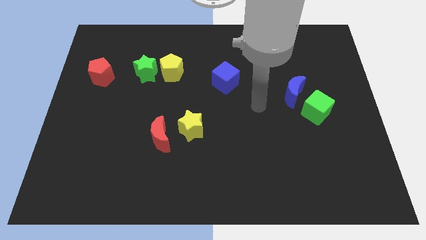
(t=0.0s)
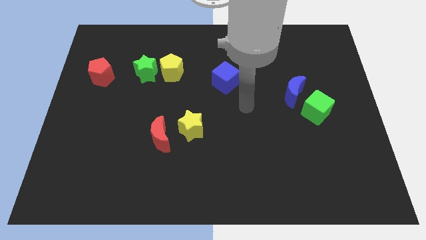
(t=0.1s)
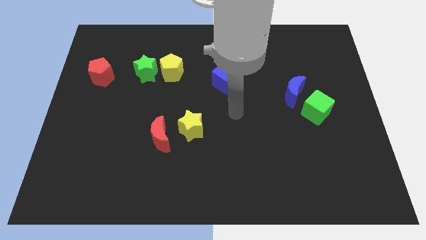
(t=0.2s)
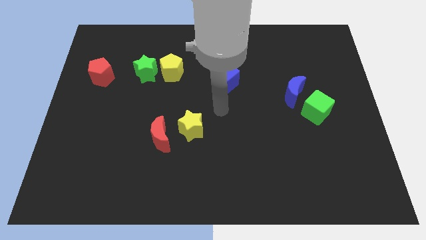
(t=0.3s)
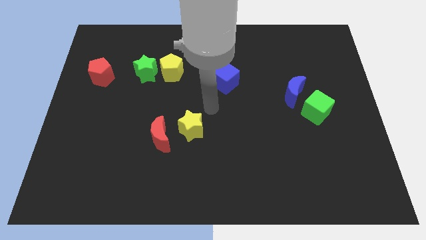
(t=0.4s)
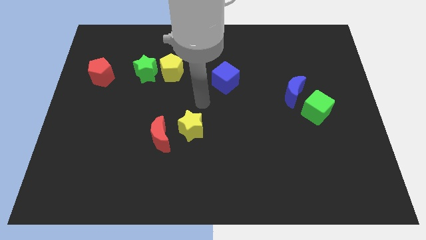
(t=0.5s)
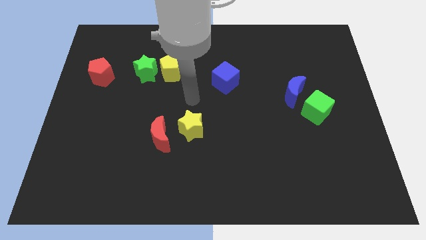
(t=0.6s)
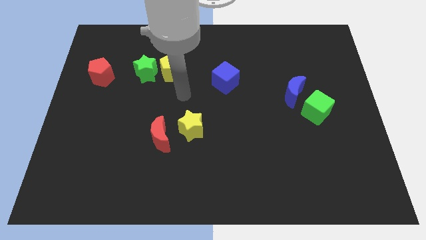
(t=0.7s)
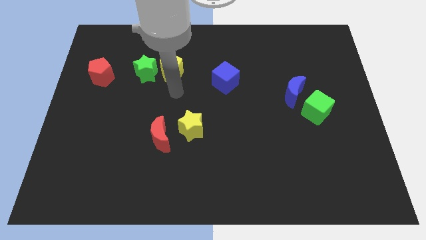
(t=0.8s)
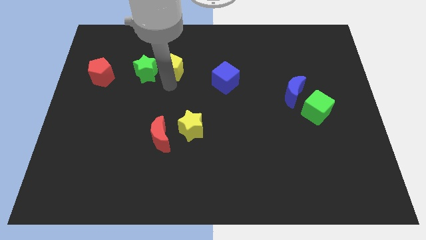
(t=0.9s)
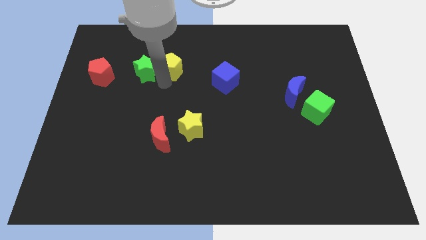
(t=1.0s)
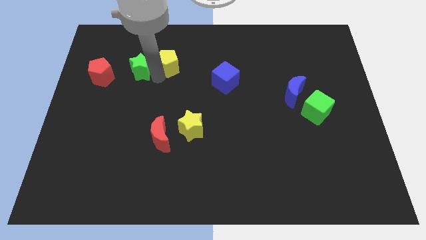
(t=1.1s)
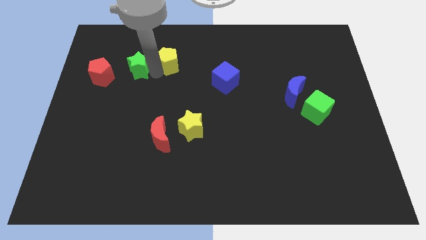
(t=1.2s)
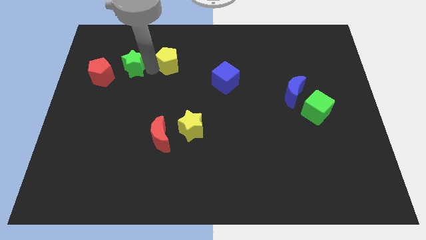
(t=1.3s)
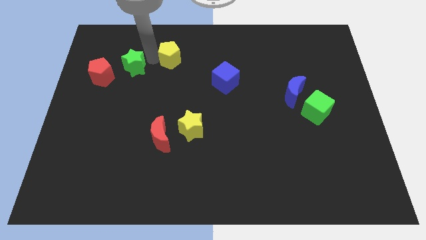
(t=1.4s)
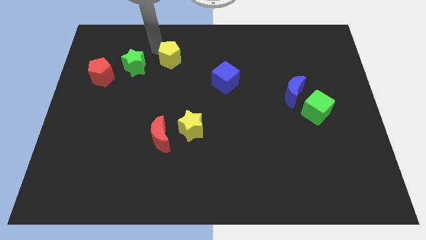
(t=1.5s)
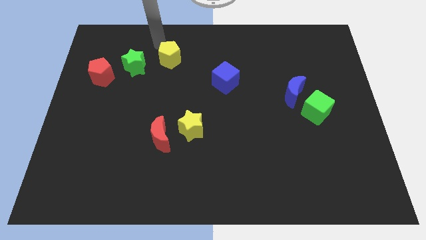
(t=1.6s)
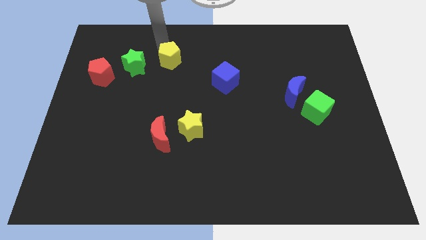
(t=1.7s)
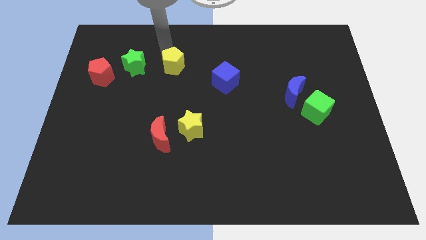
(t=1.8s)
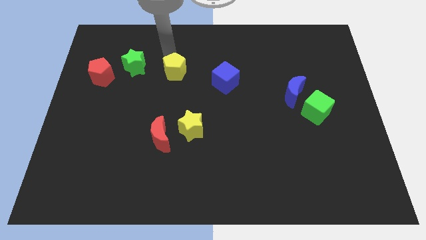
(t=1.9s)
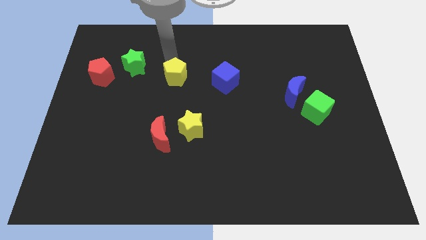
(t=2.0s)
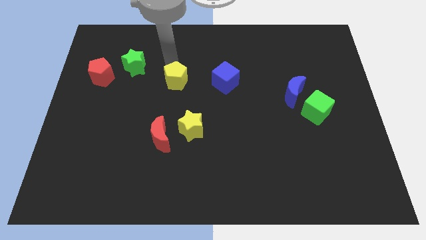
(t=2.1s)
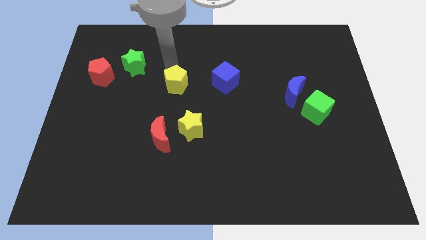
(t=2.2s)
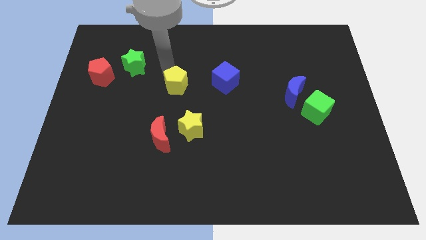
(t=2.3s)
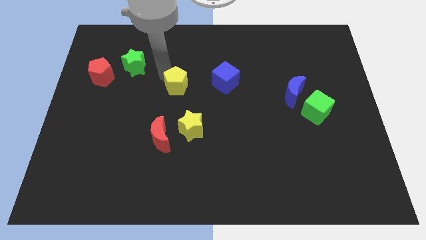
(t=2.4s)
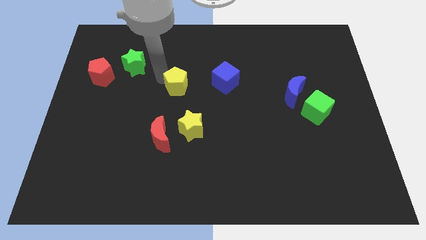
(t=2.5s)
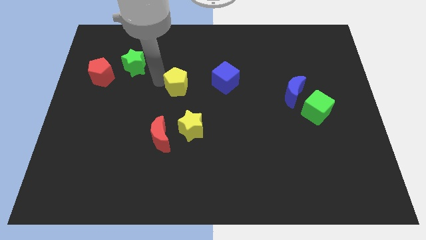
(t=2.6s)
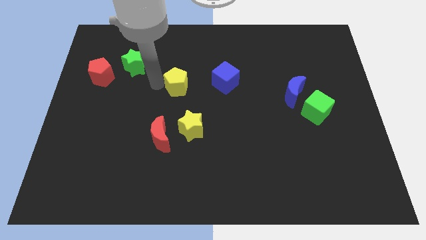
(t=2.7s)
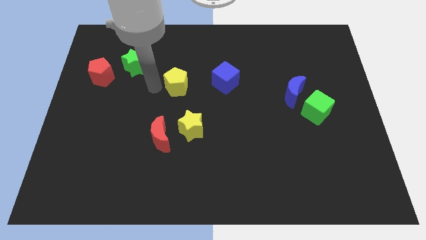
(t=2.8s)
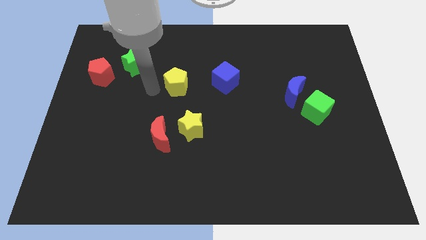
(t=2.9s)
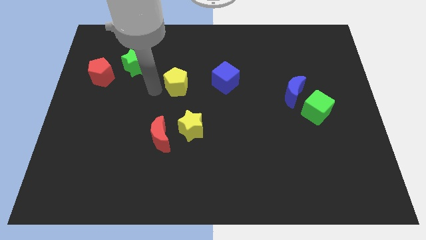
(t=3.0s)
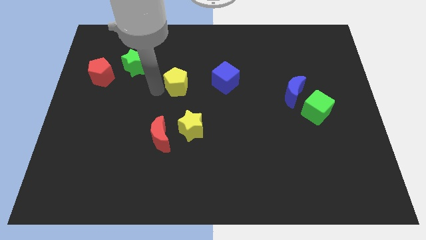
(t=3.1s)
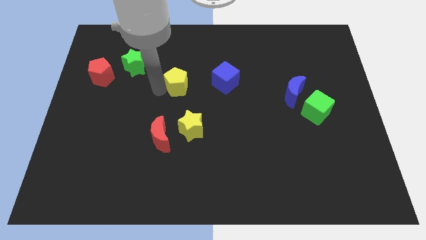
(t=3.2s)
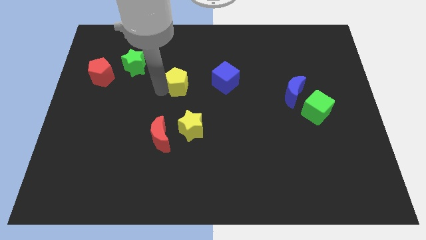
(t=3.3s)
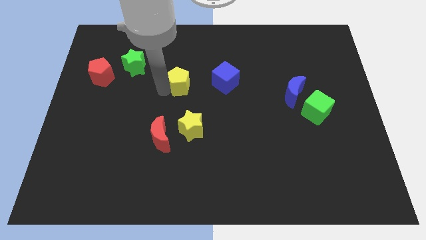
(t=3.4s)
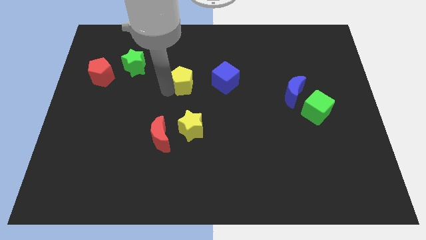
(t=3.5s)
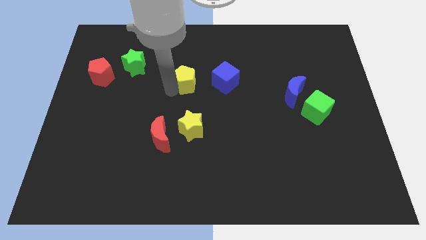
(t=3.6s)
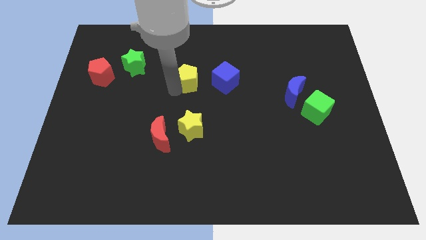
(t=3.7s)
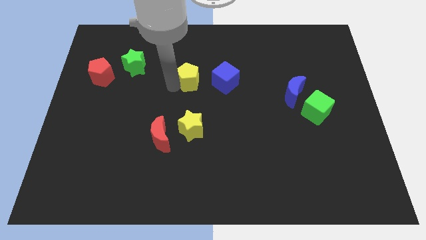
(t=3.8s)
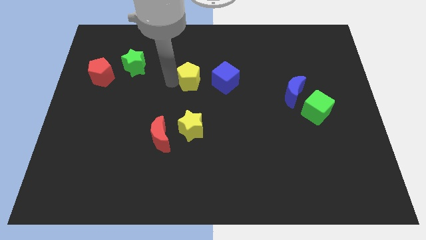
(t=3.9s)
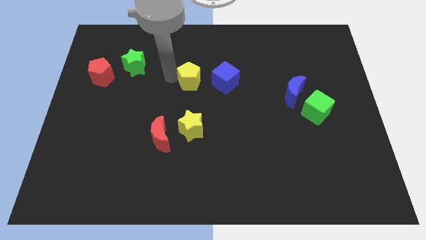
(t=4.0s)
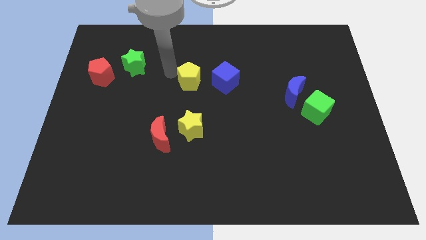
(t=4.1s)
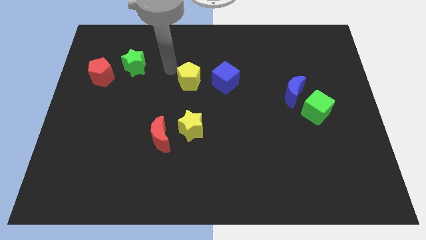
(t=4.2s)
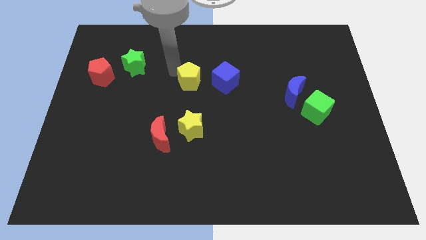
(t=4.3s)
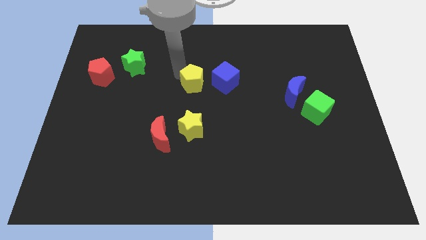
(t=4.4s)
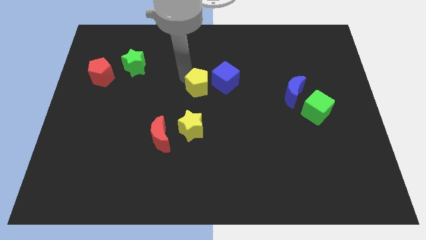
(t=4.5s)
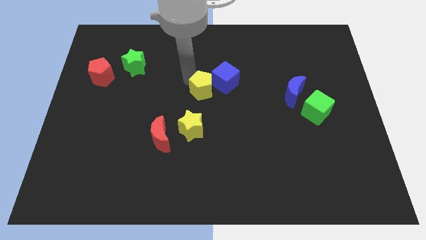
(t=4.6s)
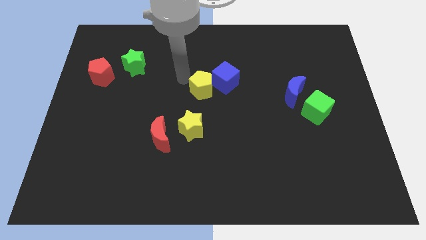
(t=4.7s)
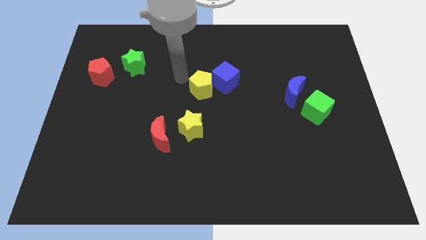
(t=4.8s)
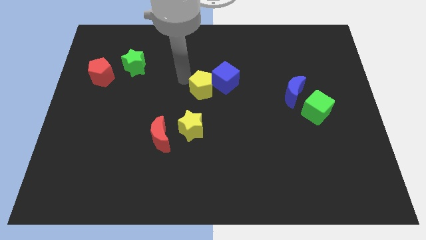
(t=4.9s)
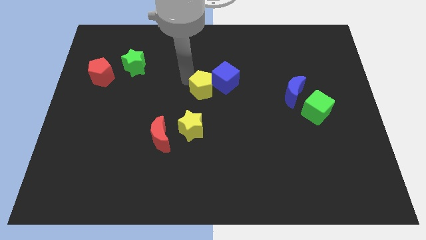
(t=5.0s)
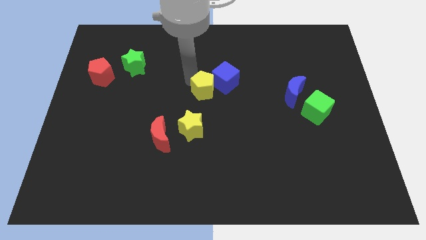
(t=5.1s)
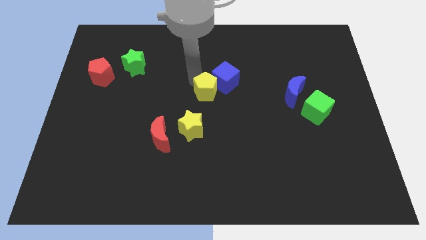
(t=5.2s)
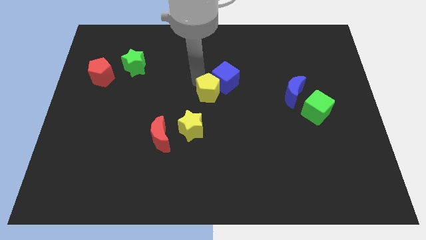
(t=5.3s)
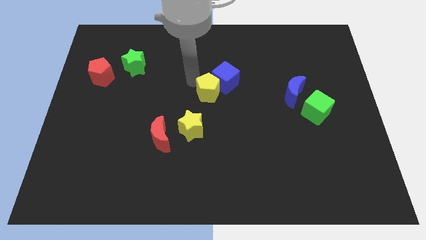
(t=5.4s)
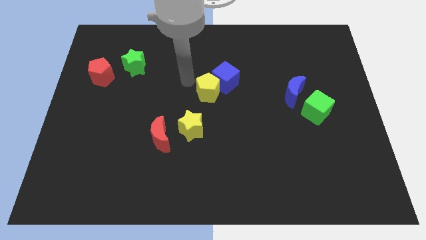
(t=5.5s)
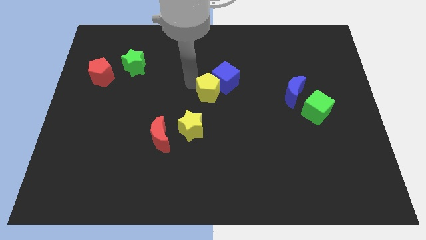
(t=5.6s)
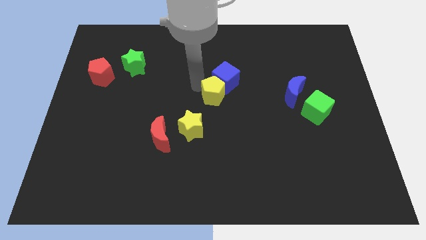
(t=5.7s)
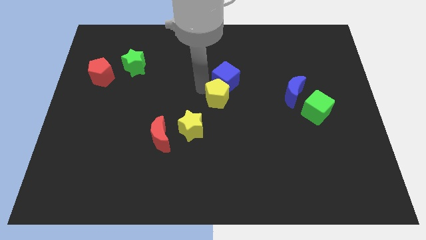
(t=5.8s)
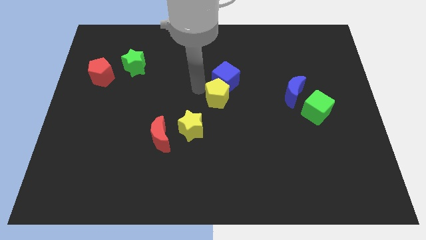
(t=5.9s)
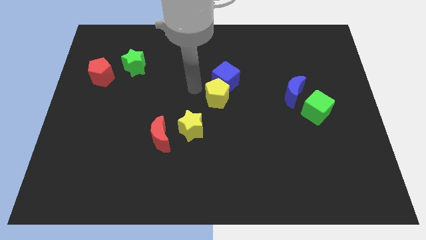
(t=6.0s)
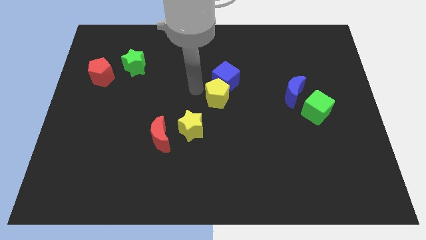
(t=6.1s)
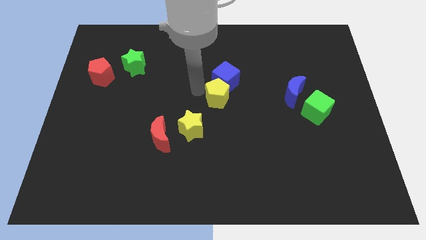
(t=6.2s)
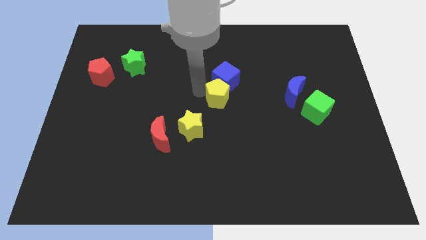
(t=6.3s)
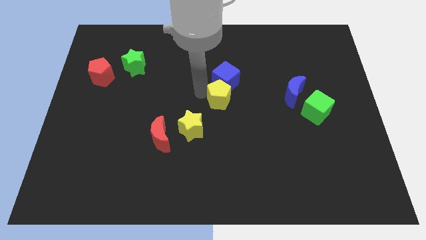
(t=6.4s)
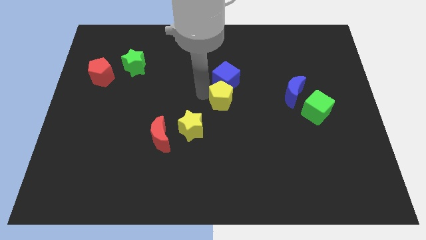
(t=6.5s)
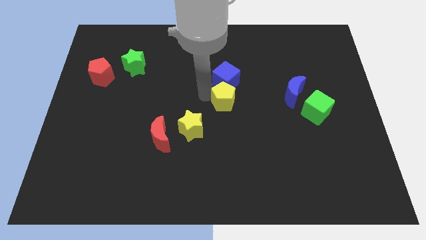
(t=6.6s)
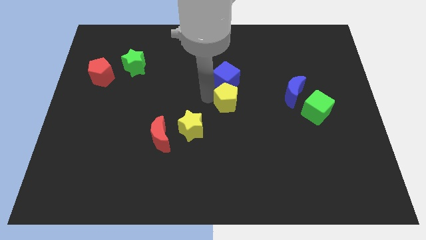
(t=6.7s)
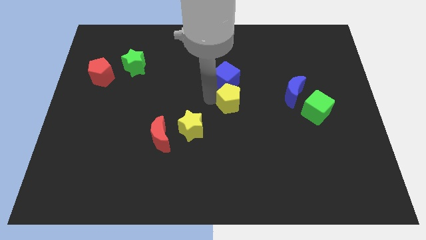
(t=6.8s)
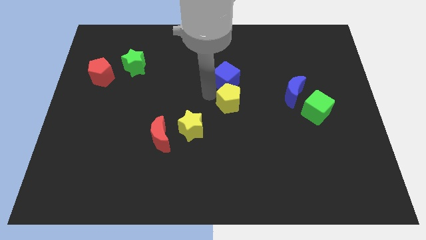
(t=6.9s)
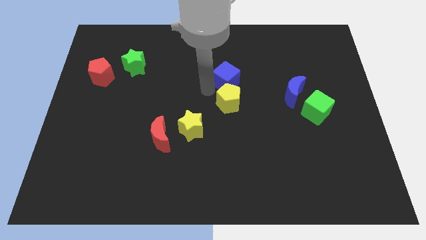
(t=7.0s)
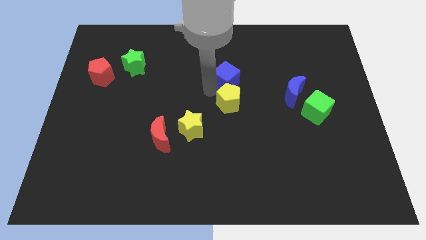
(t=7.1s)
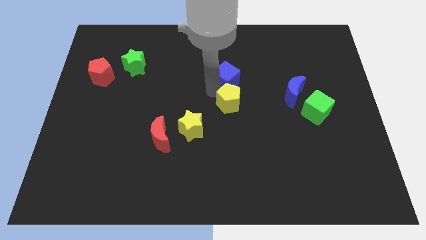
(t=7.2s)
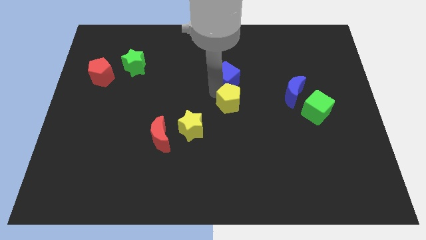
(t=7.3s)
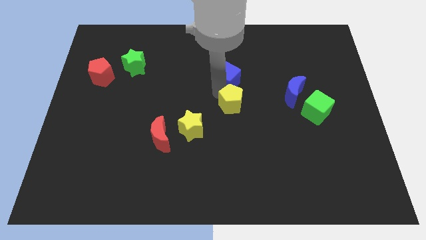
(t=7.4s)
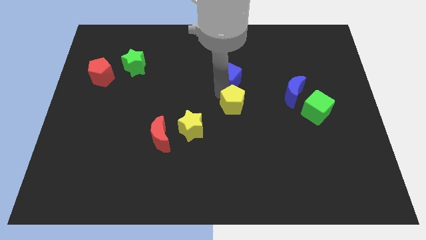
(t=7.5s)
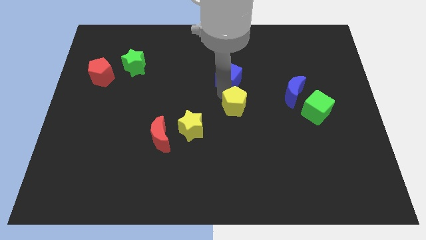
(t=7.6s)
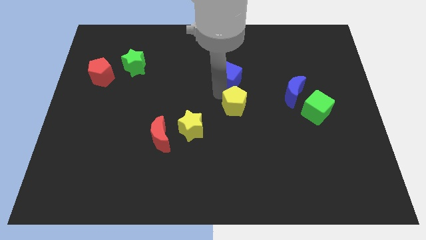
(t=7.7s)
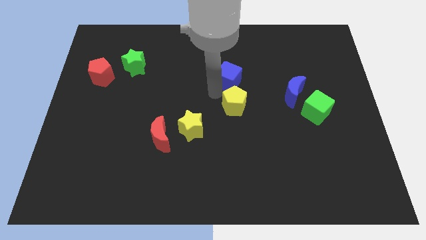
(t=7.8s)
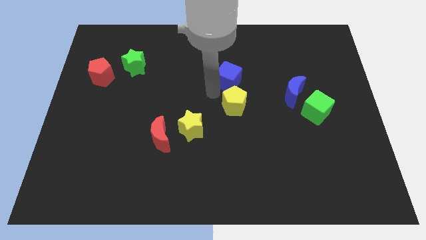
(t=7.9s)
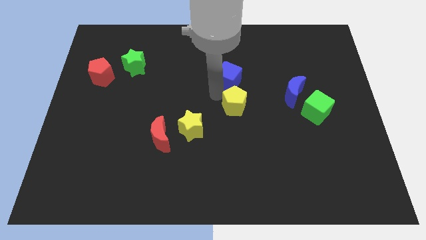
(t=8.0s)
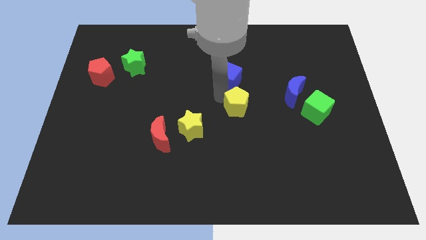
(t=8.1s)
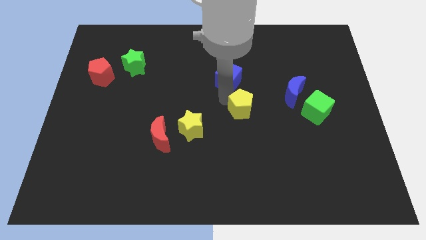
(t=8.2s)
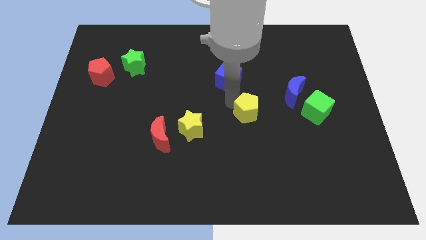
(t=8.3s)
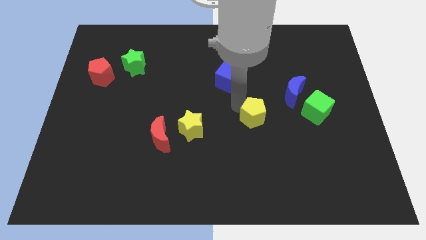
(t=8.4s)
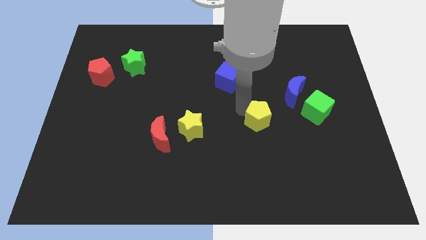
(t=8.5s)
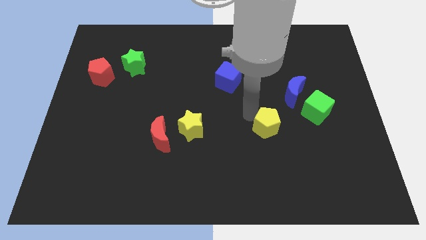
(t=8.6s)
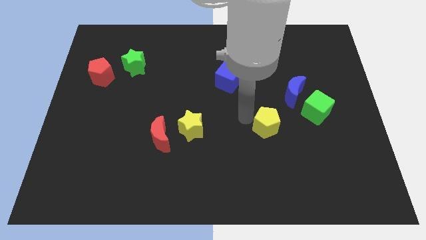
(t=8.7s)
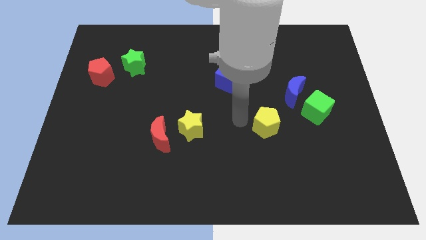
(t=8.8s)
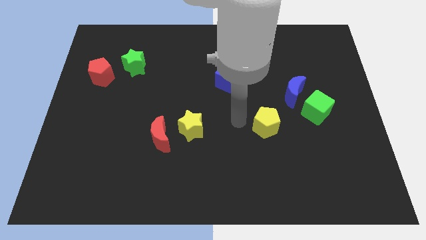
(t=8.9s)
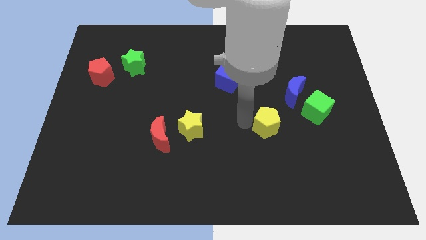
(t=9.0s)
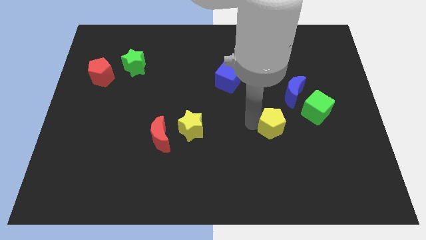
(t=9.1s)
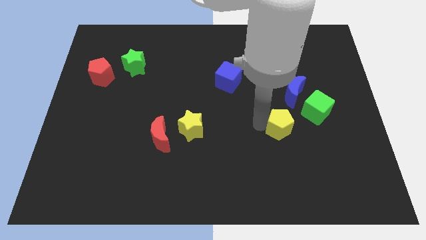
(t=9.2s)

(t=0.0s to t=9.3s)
push the yellow pentagon to the bottom left side of the green cube
